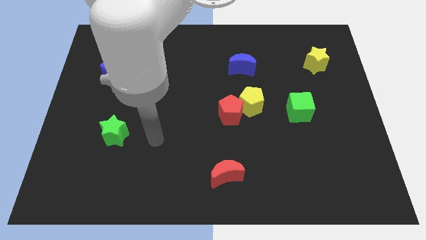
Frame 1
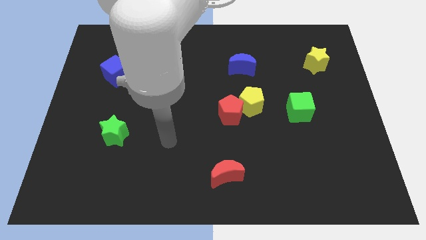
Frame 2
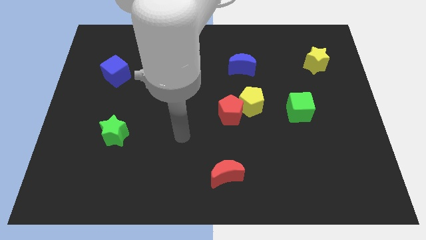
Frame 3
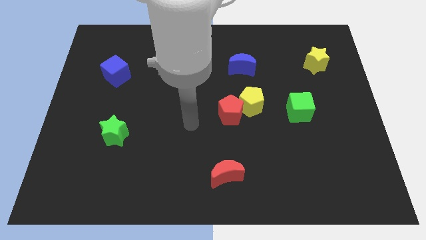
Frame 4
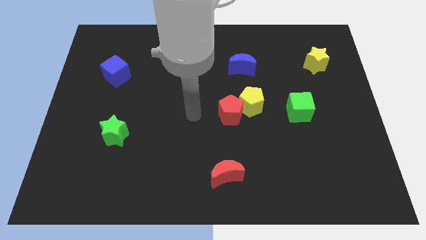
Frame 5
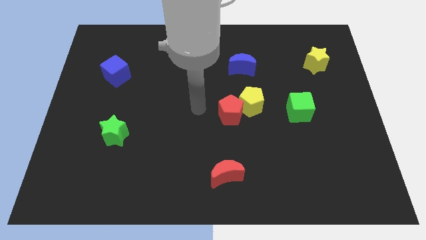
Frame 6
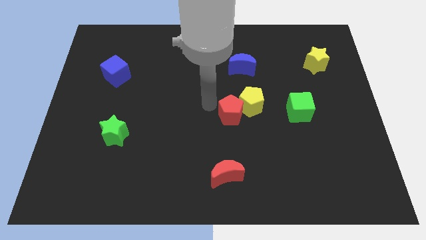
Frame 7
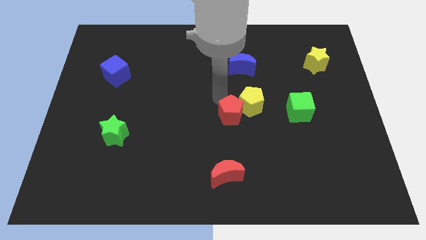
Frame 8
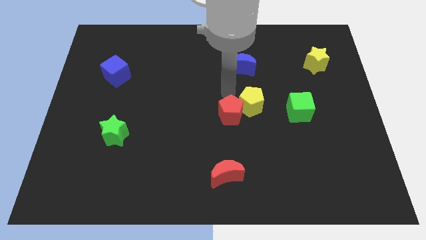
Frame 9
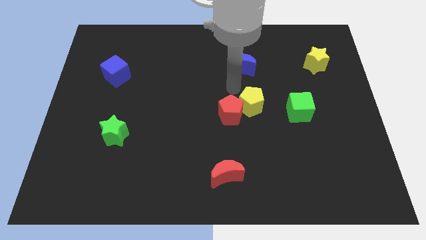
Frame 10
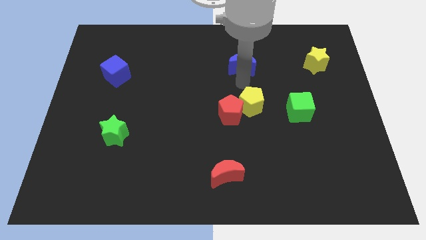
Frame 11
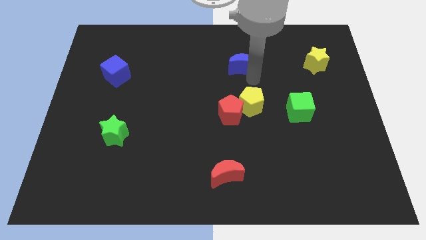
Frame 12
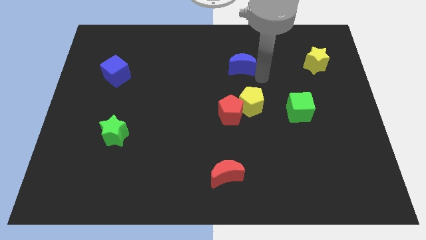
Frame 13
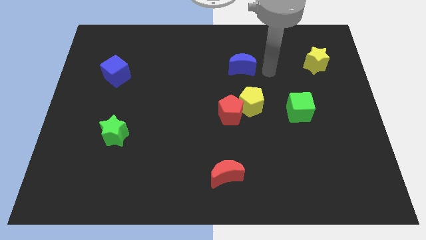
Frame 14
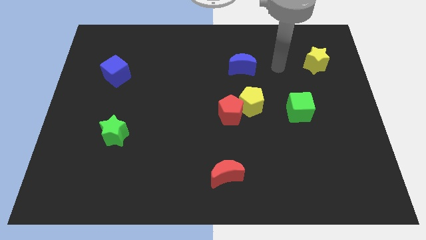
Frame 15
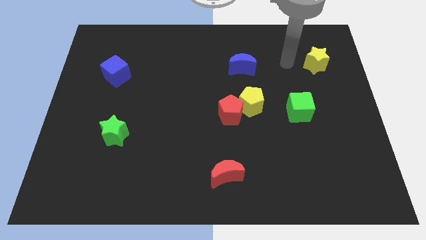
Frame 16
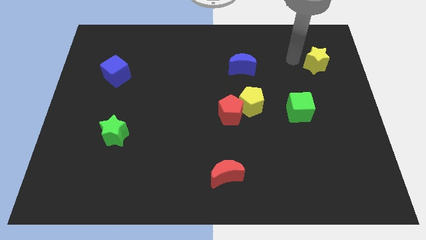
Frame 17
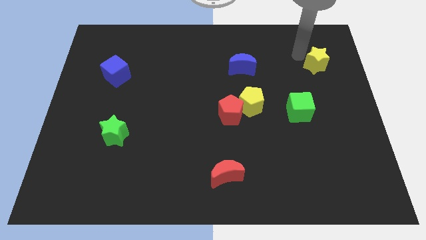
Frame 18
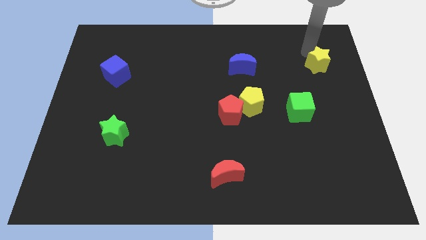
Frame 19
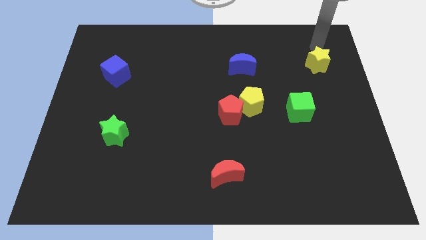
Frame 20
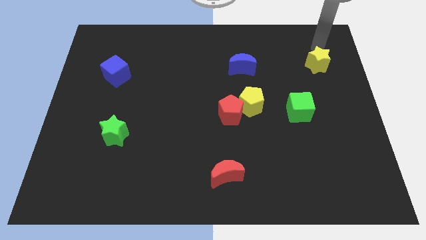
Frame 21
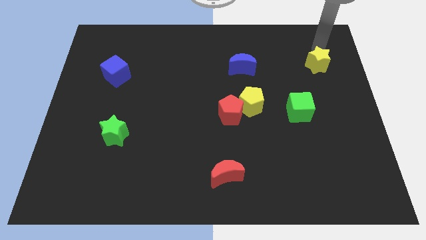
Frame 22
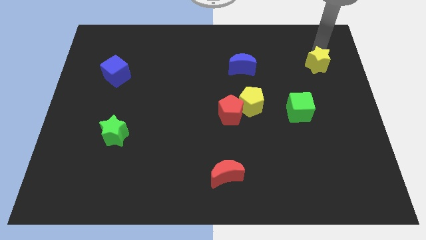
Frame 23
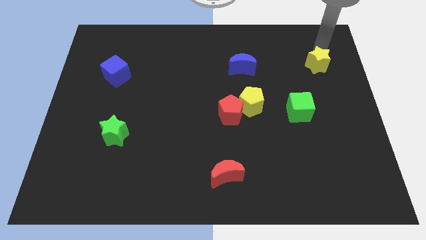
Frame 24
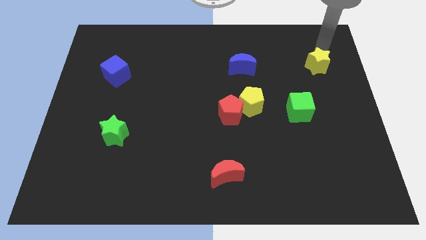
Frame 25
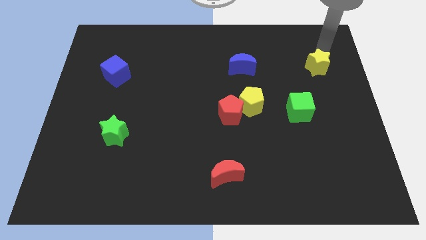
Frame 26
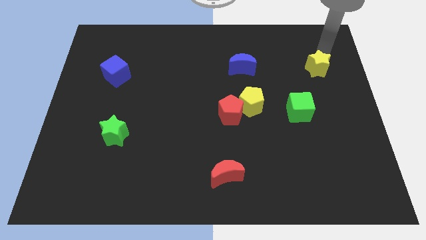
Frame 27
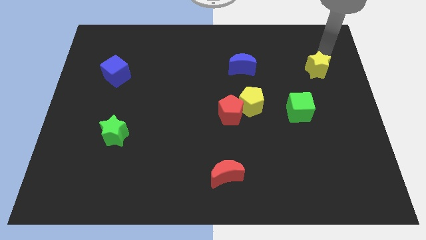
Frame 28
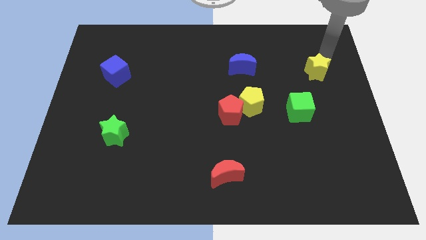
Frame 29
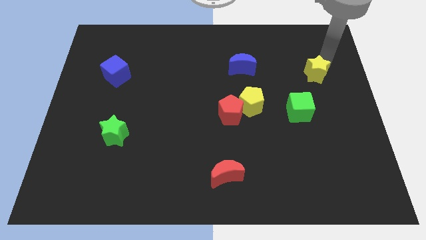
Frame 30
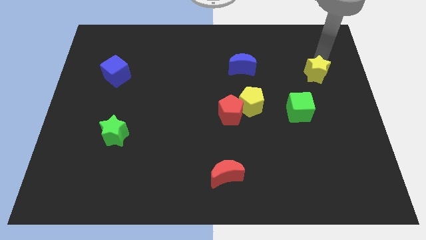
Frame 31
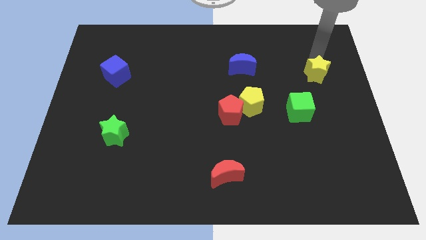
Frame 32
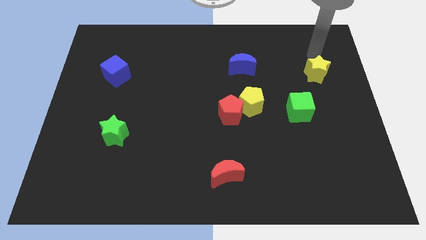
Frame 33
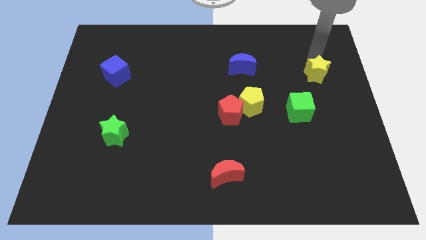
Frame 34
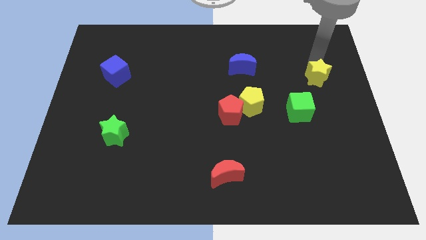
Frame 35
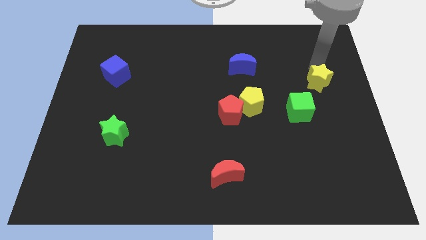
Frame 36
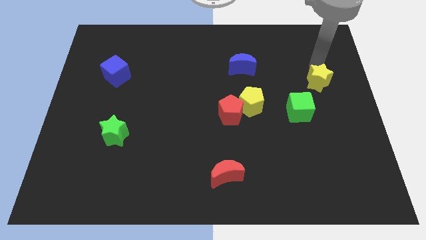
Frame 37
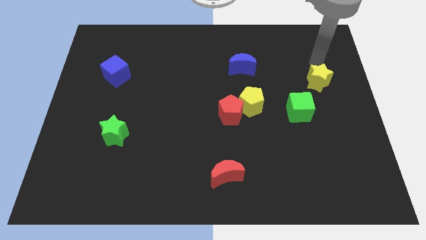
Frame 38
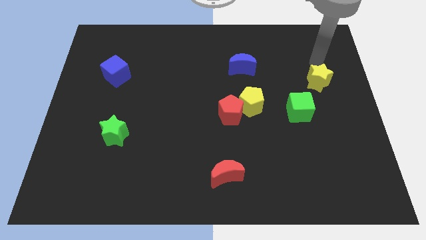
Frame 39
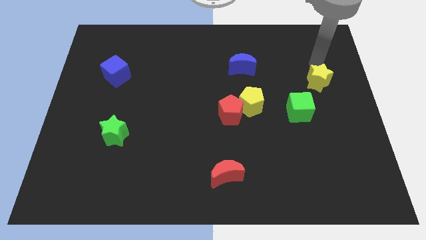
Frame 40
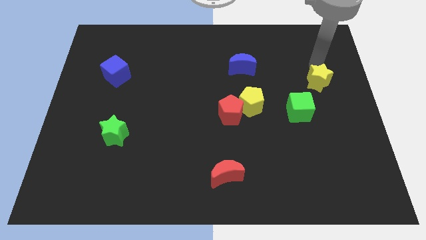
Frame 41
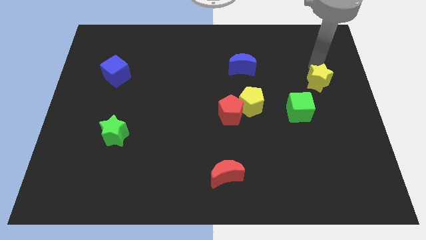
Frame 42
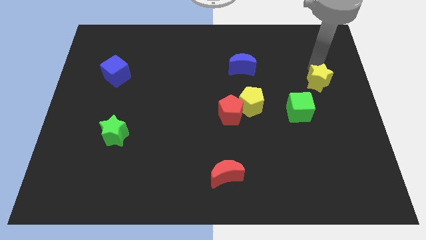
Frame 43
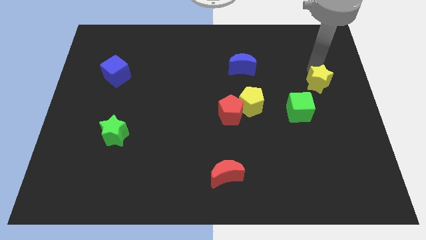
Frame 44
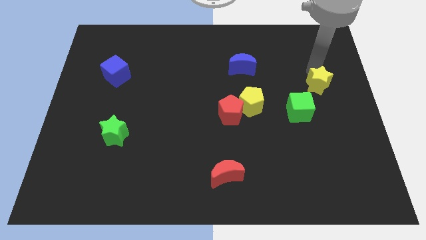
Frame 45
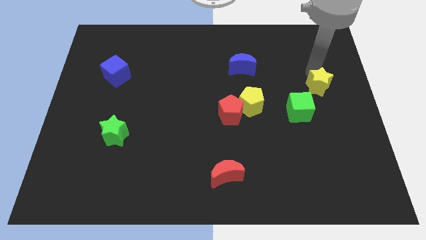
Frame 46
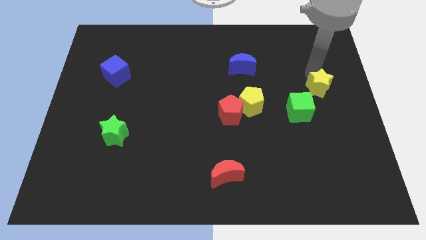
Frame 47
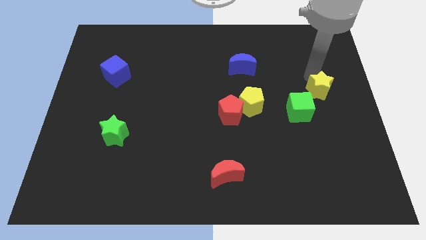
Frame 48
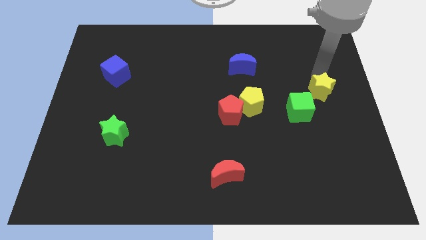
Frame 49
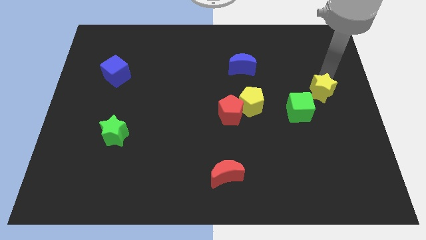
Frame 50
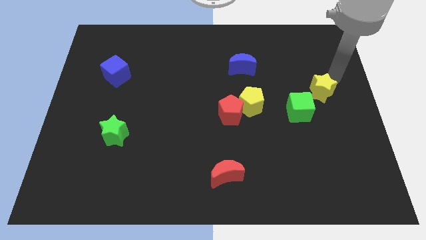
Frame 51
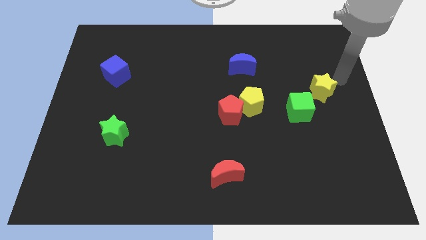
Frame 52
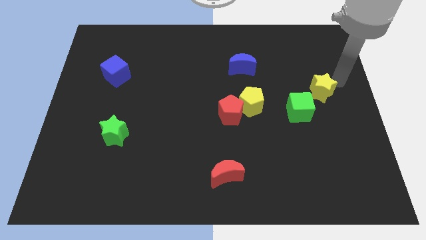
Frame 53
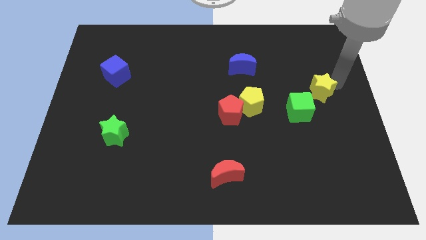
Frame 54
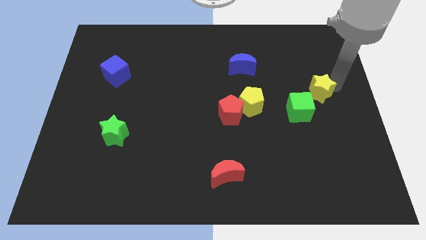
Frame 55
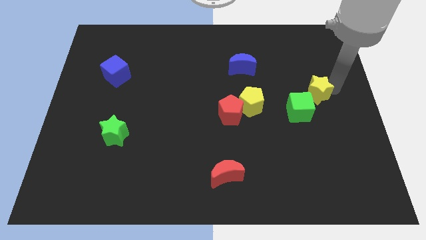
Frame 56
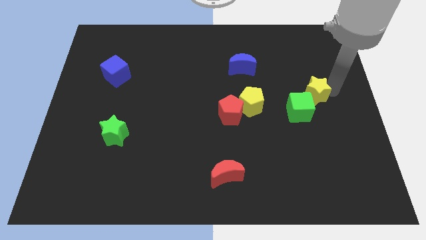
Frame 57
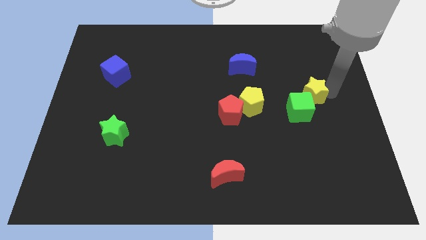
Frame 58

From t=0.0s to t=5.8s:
move the yellow star just right of the yellow pentagon

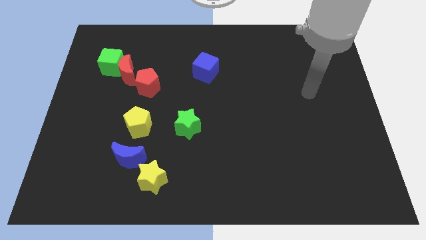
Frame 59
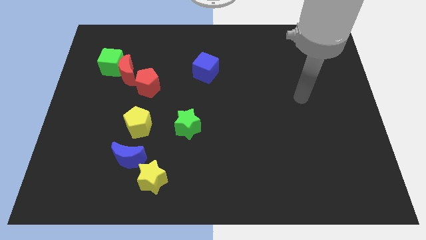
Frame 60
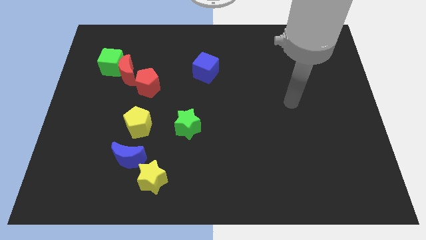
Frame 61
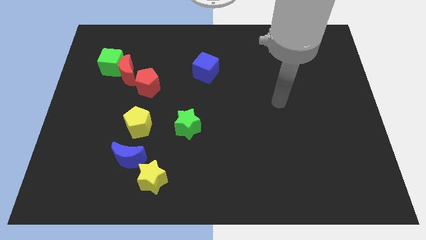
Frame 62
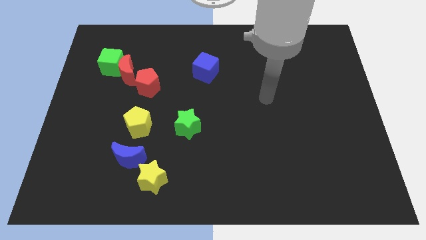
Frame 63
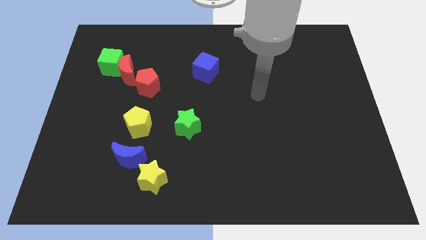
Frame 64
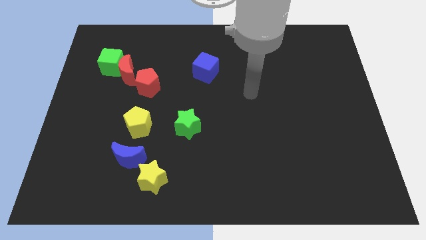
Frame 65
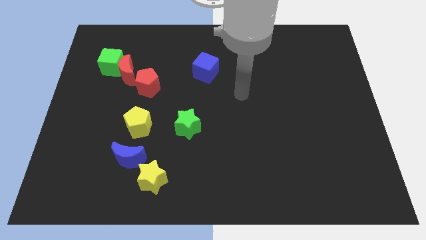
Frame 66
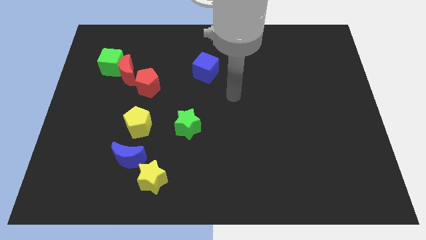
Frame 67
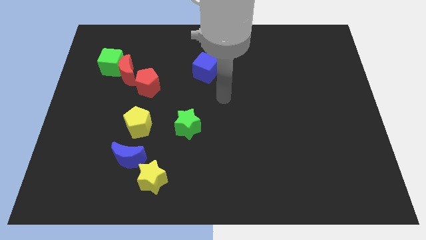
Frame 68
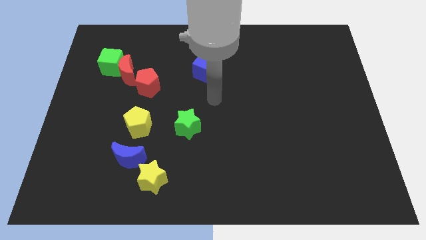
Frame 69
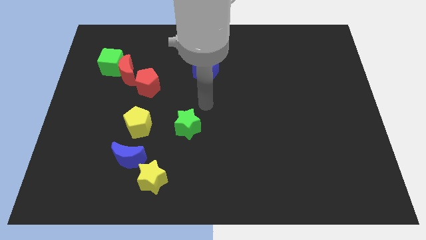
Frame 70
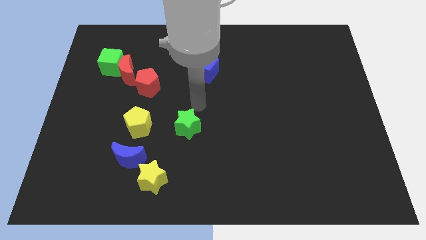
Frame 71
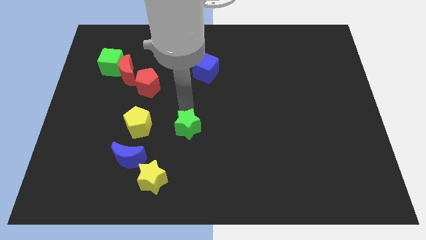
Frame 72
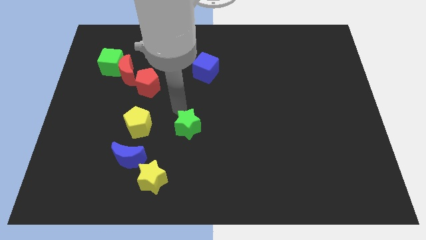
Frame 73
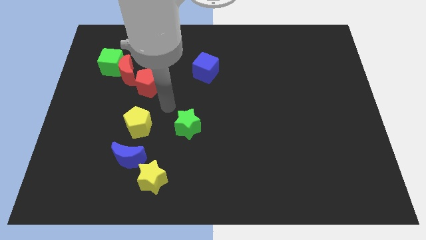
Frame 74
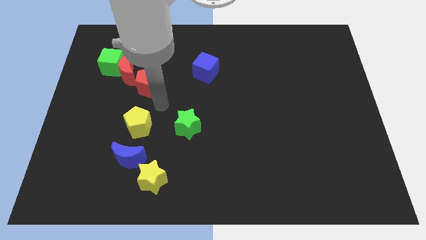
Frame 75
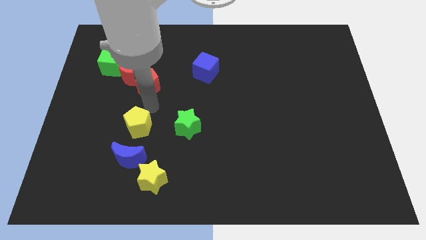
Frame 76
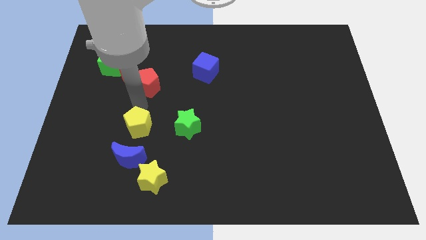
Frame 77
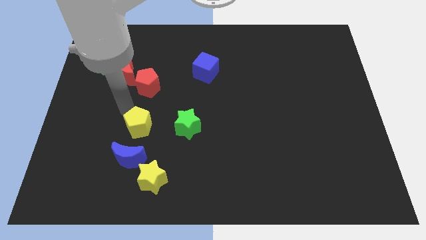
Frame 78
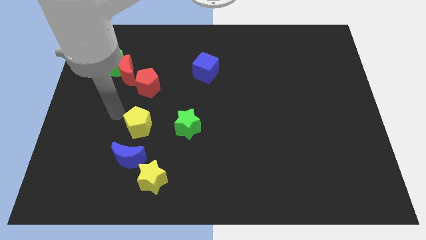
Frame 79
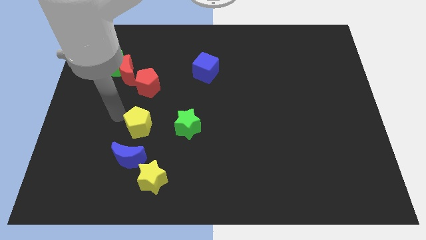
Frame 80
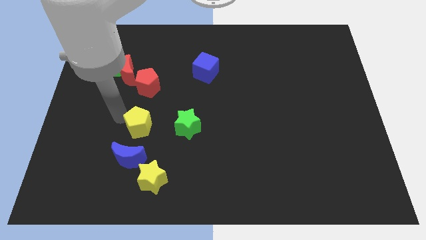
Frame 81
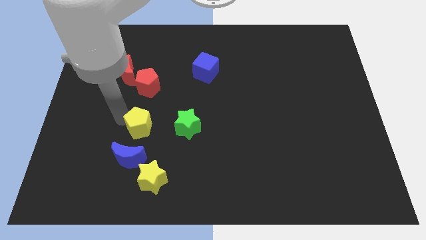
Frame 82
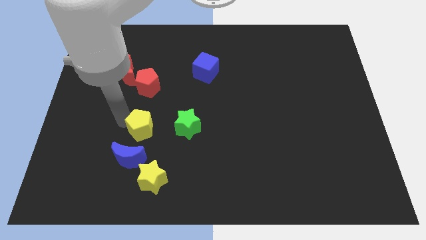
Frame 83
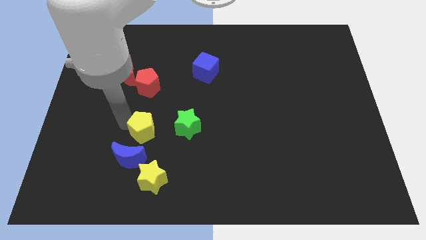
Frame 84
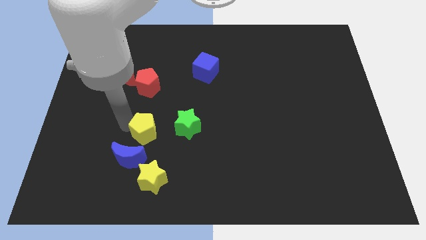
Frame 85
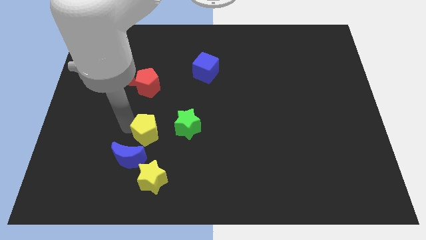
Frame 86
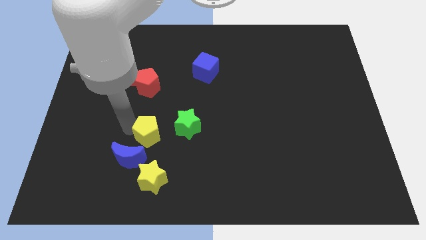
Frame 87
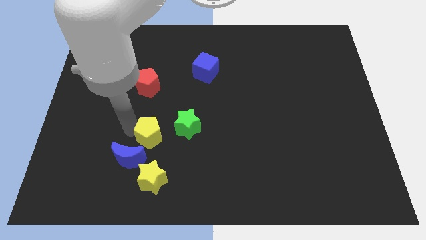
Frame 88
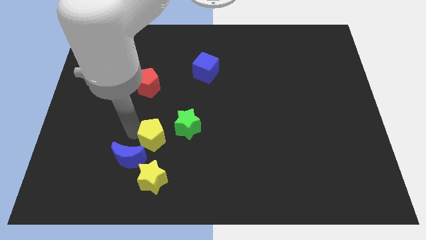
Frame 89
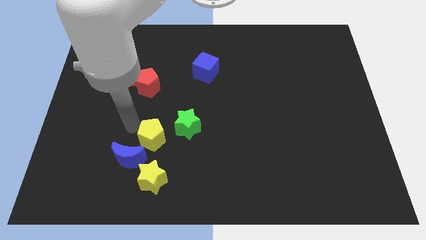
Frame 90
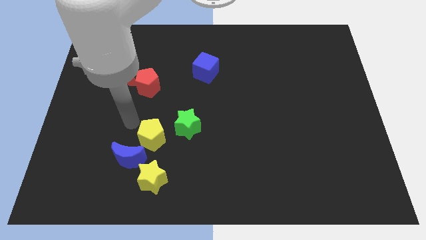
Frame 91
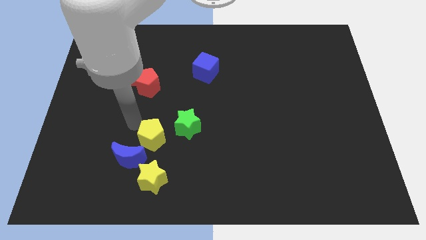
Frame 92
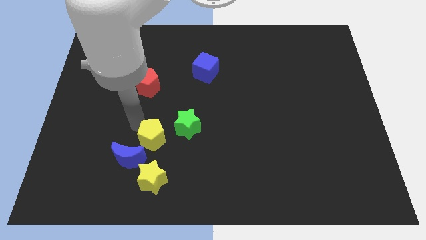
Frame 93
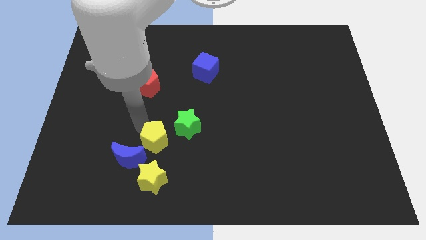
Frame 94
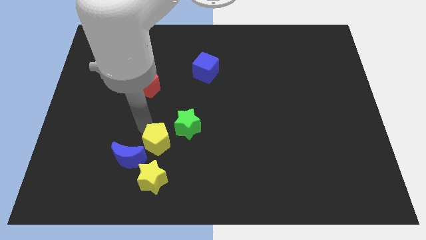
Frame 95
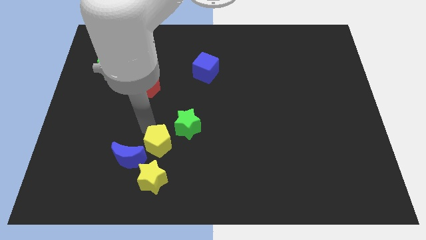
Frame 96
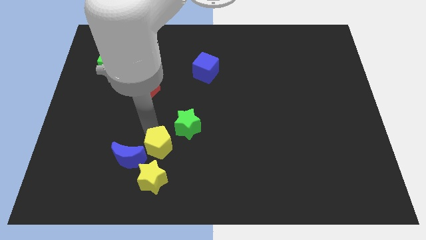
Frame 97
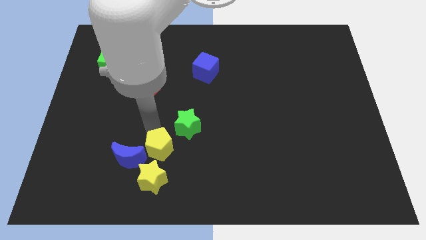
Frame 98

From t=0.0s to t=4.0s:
slide the yellow pentagon diagonally up and to the right of the yellow star
